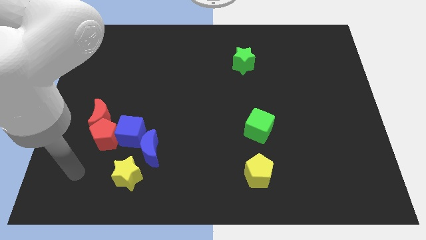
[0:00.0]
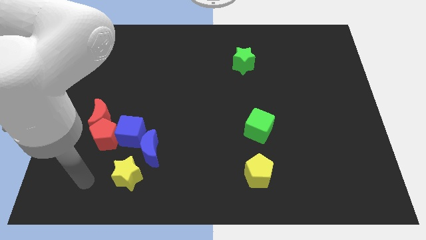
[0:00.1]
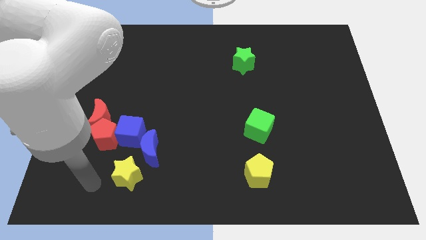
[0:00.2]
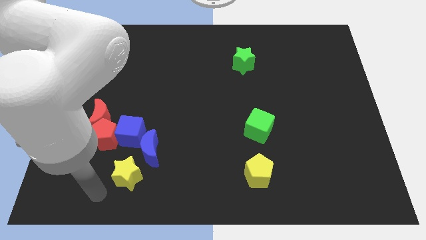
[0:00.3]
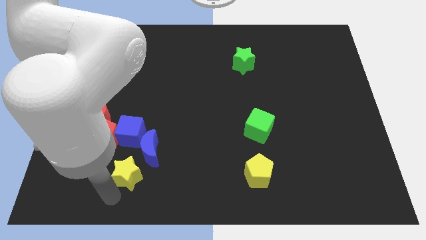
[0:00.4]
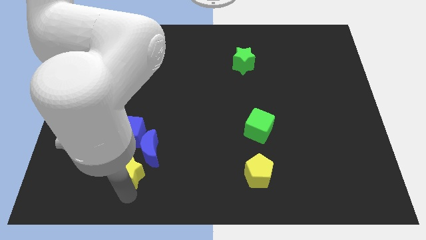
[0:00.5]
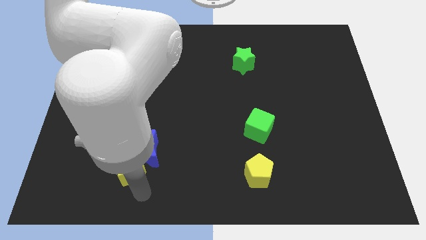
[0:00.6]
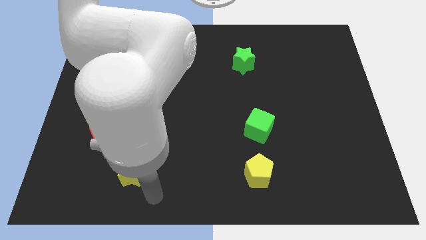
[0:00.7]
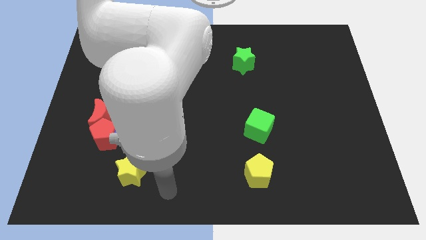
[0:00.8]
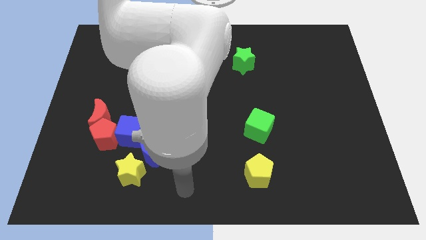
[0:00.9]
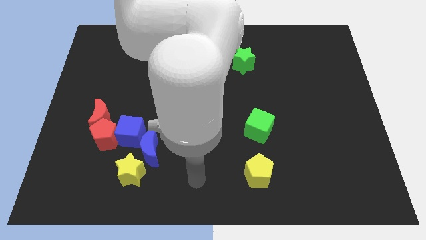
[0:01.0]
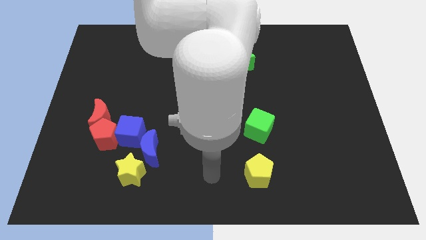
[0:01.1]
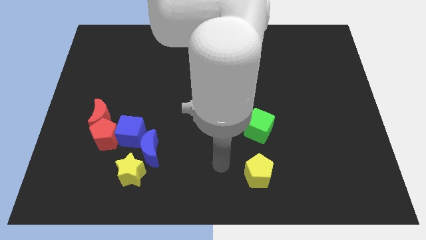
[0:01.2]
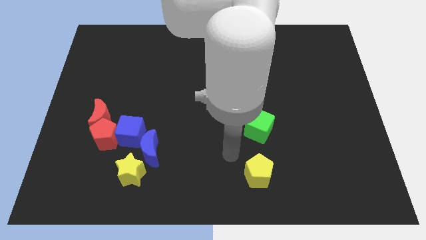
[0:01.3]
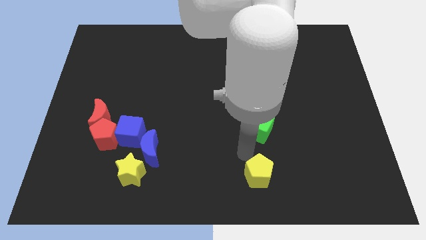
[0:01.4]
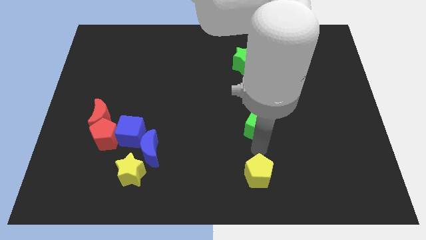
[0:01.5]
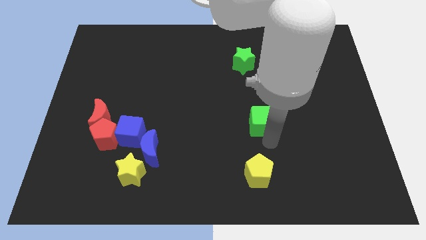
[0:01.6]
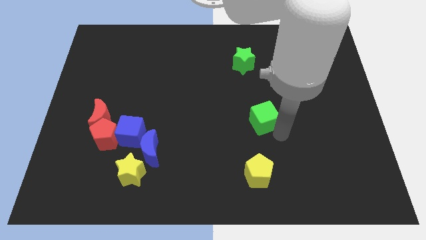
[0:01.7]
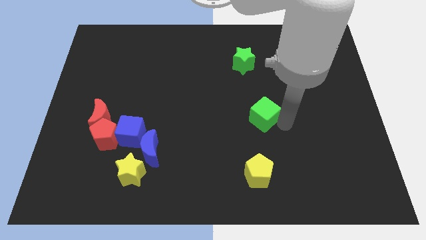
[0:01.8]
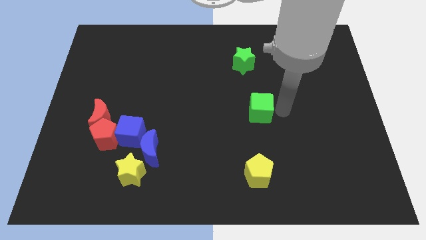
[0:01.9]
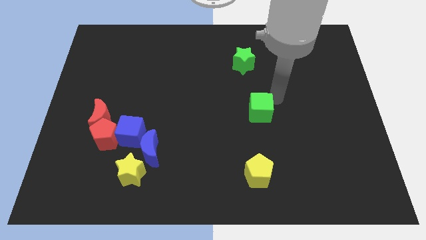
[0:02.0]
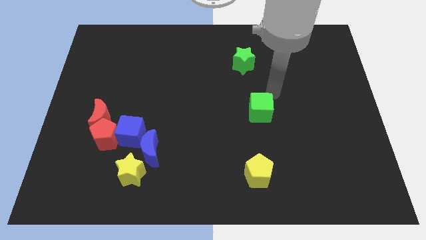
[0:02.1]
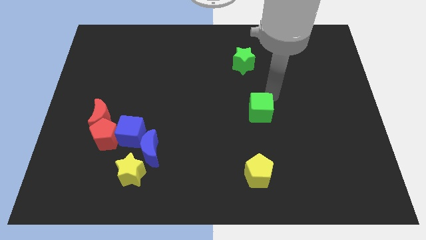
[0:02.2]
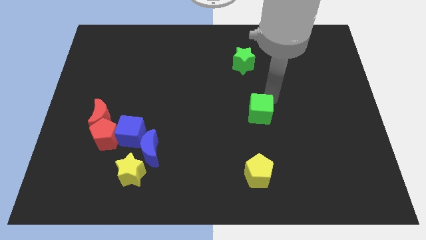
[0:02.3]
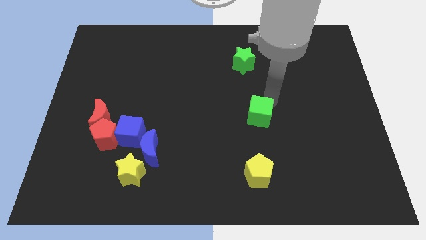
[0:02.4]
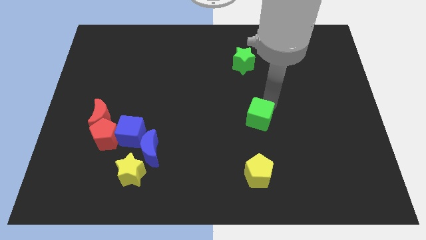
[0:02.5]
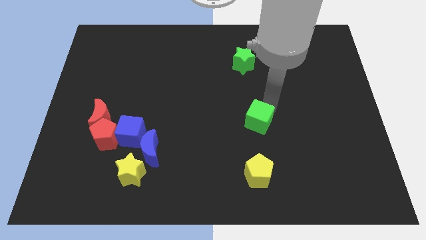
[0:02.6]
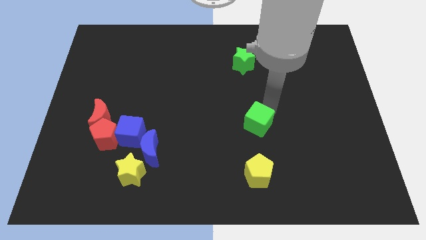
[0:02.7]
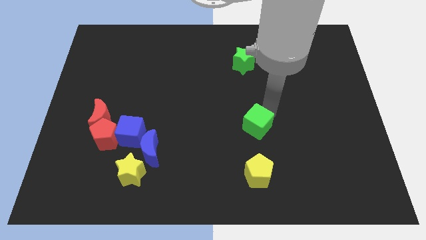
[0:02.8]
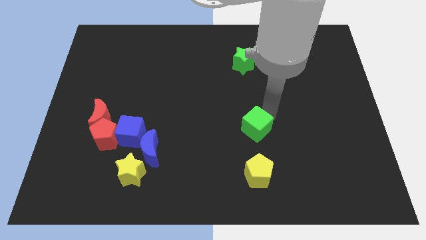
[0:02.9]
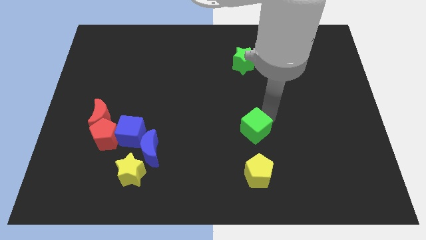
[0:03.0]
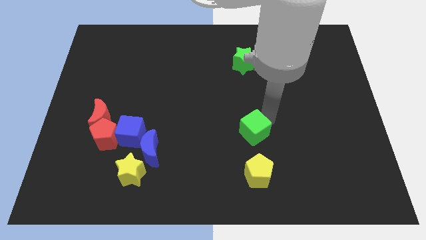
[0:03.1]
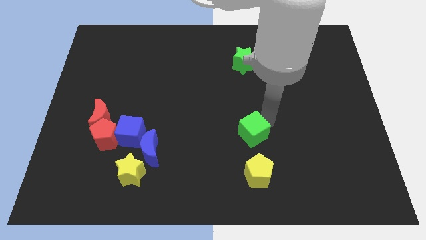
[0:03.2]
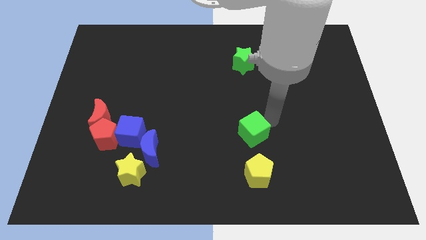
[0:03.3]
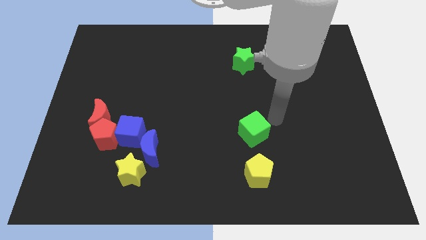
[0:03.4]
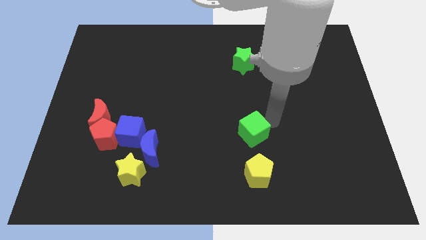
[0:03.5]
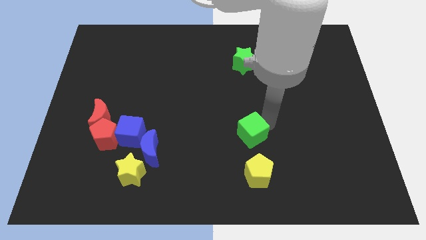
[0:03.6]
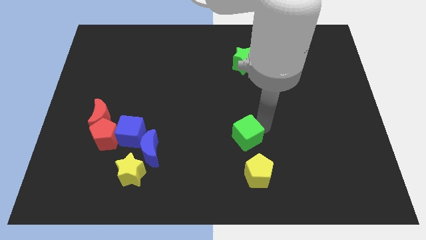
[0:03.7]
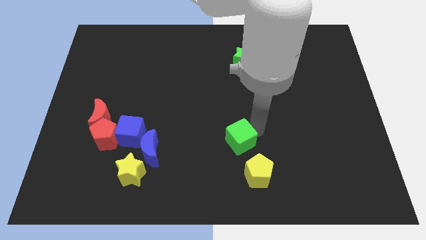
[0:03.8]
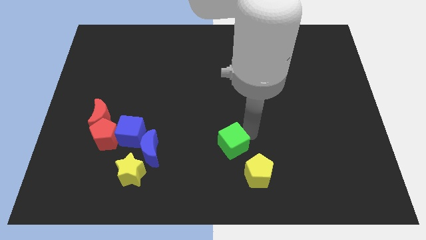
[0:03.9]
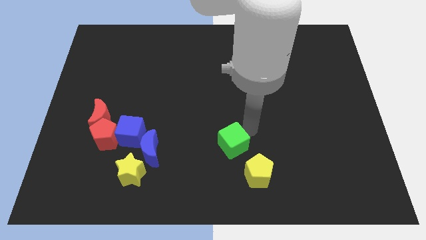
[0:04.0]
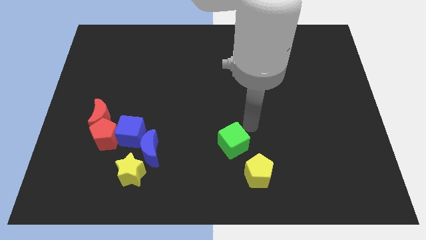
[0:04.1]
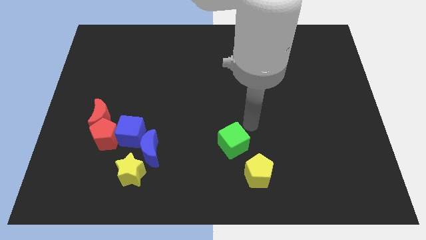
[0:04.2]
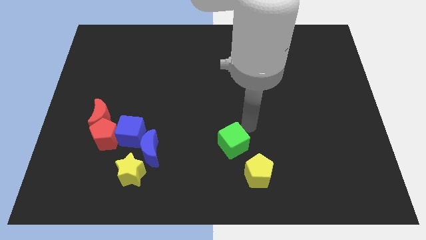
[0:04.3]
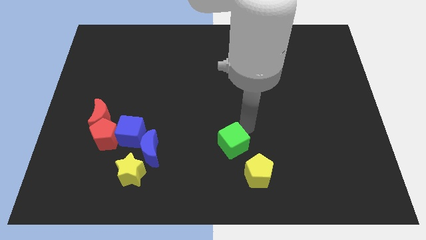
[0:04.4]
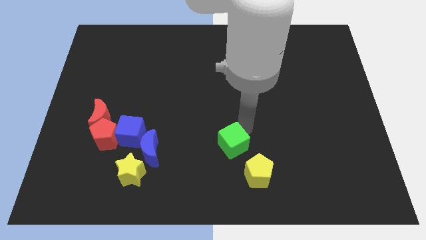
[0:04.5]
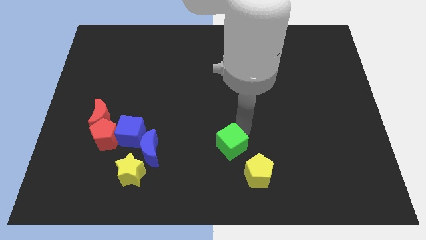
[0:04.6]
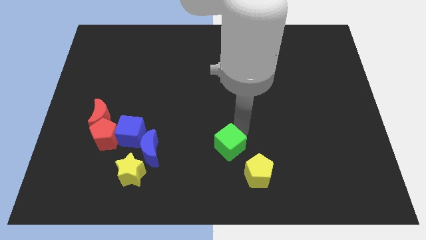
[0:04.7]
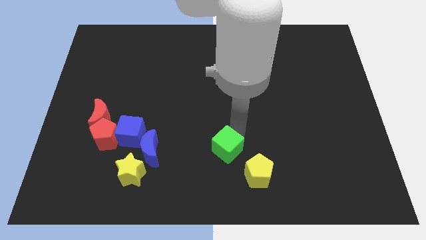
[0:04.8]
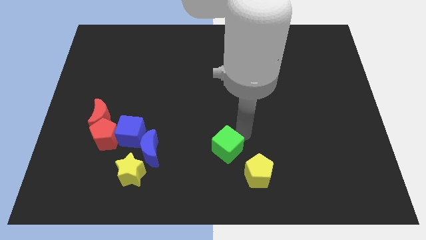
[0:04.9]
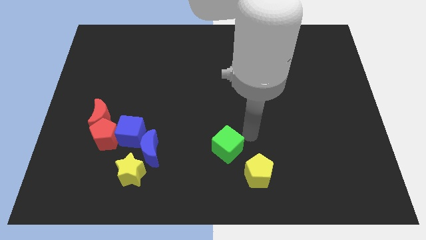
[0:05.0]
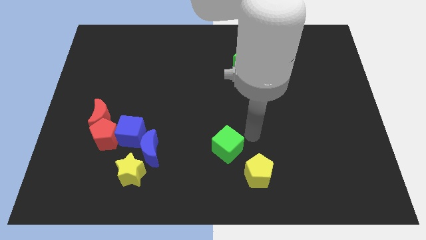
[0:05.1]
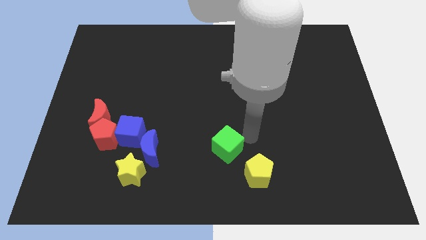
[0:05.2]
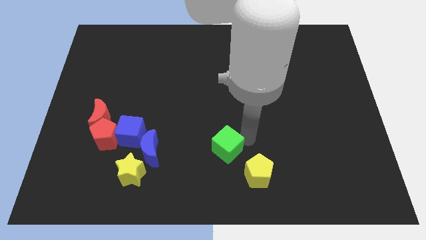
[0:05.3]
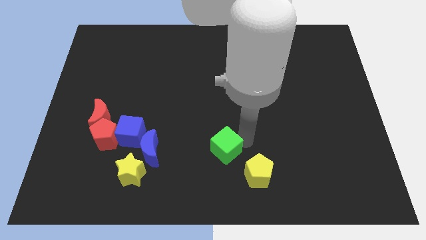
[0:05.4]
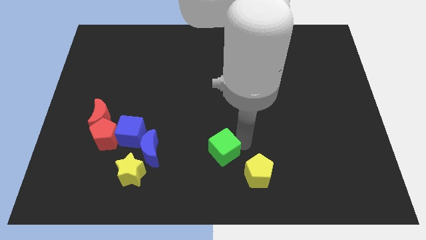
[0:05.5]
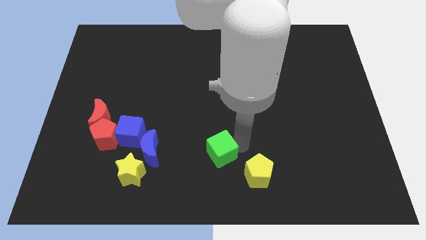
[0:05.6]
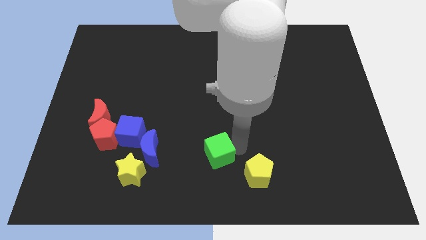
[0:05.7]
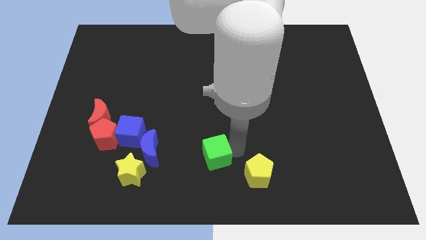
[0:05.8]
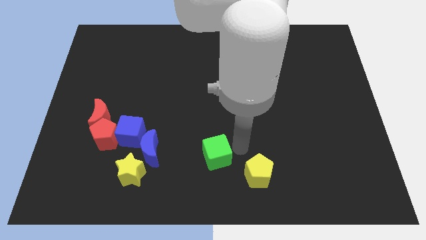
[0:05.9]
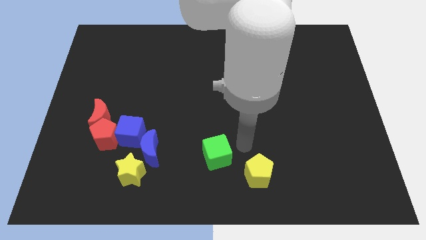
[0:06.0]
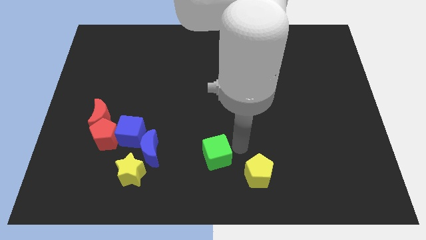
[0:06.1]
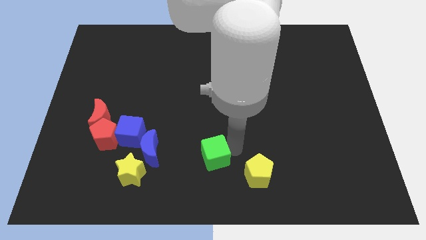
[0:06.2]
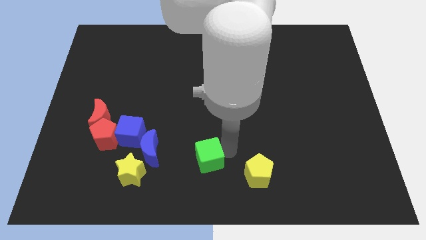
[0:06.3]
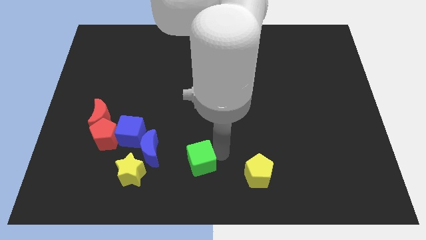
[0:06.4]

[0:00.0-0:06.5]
put the green cube to the right of the yellow star
